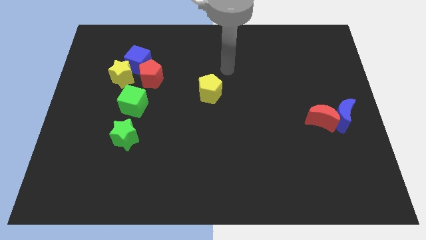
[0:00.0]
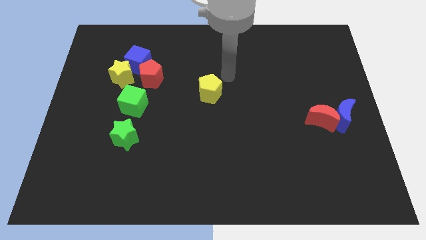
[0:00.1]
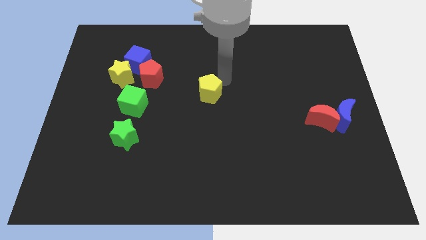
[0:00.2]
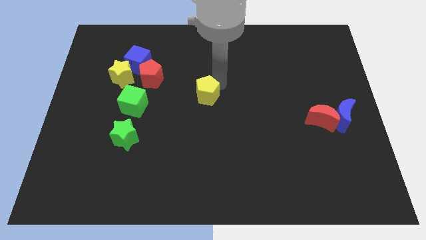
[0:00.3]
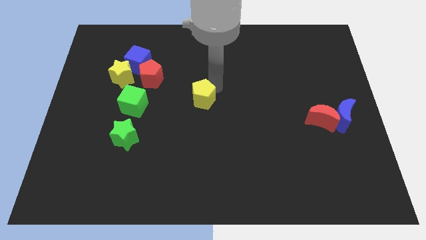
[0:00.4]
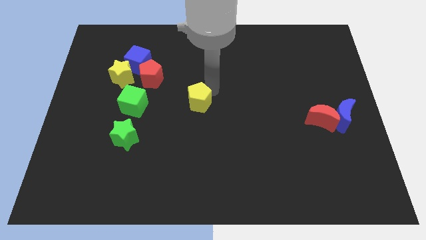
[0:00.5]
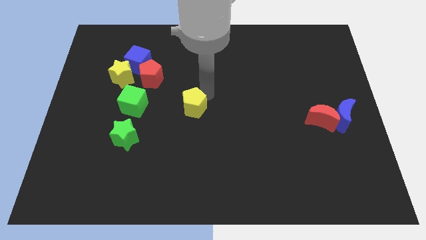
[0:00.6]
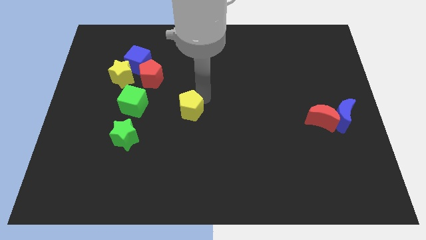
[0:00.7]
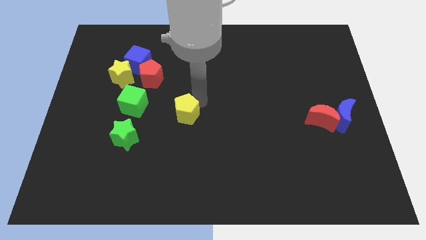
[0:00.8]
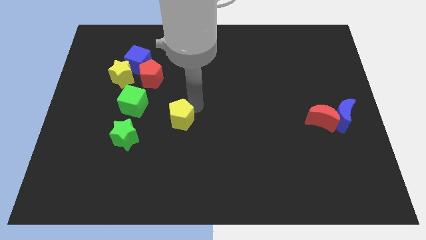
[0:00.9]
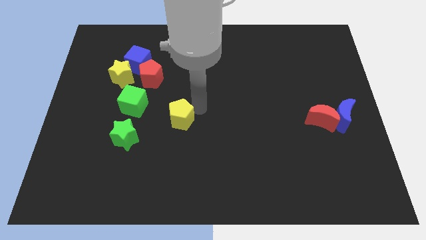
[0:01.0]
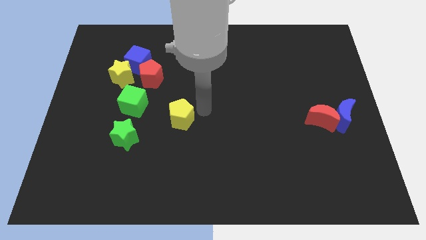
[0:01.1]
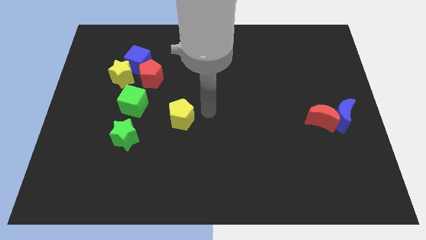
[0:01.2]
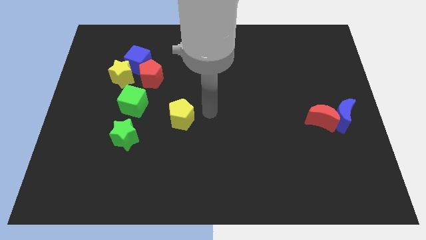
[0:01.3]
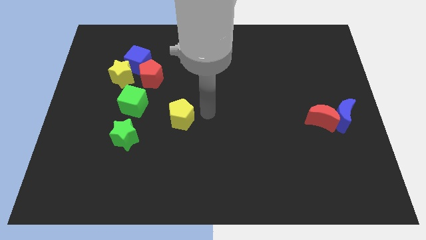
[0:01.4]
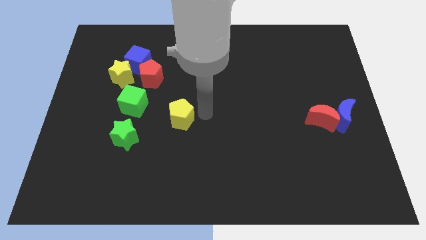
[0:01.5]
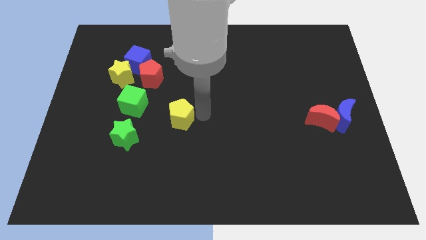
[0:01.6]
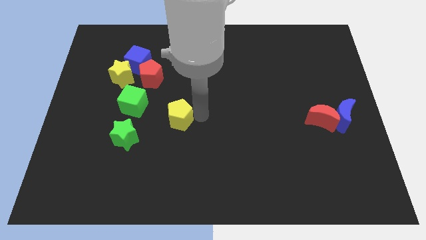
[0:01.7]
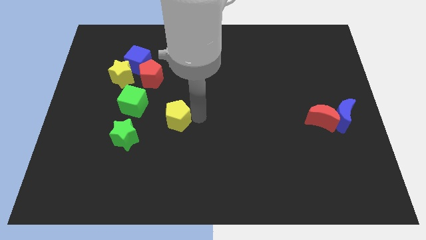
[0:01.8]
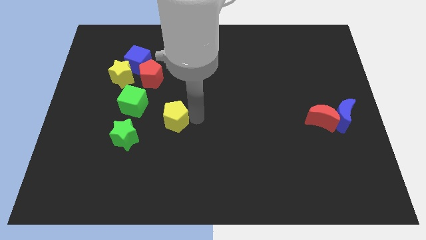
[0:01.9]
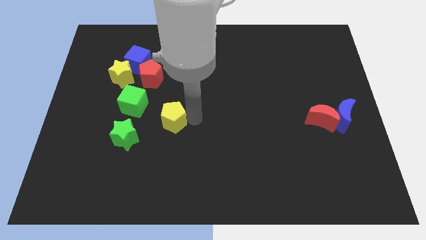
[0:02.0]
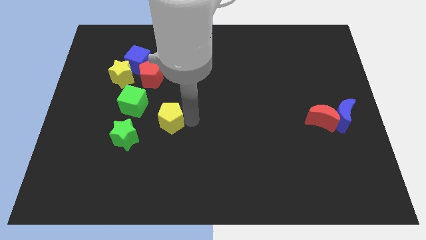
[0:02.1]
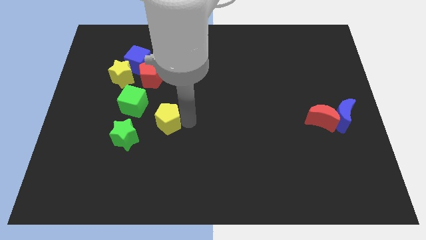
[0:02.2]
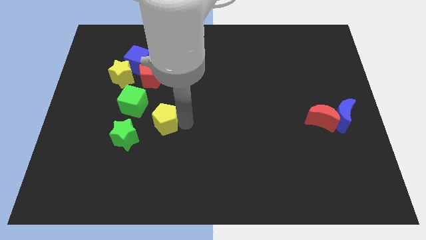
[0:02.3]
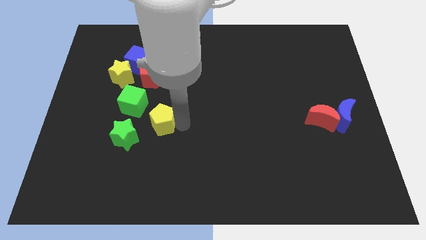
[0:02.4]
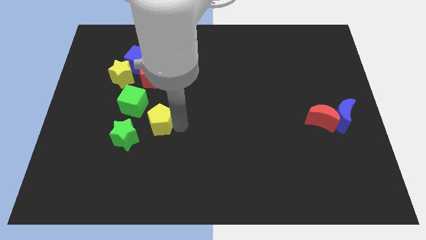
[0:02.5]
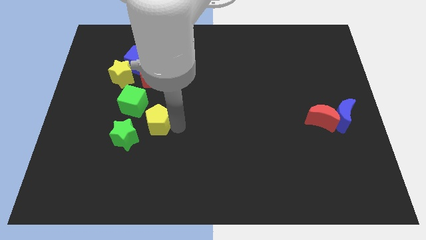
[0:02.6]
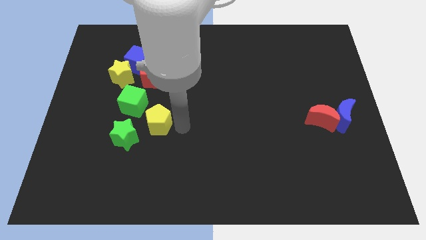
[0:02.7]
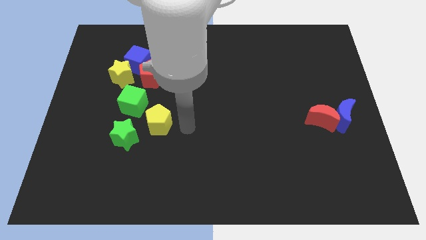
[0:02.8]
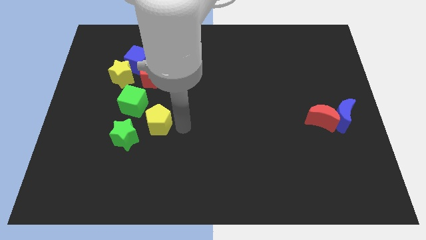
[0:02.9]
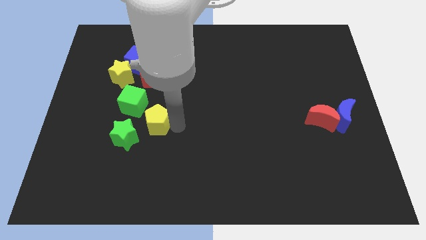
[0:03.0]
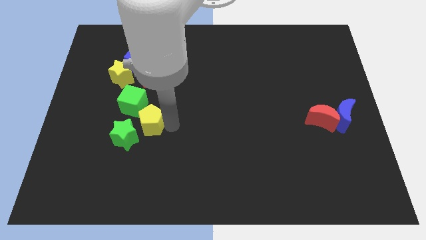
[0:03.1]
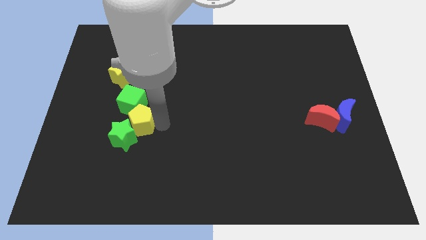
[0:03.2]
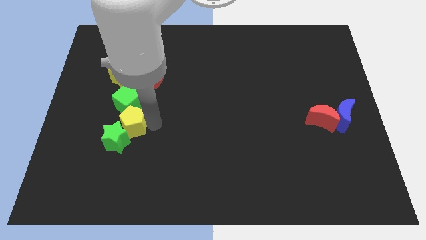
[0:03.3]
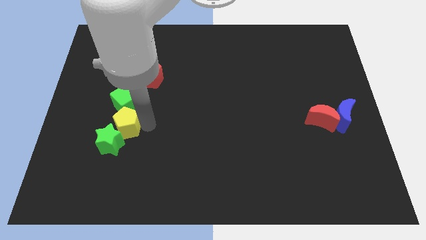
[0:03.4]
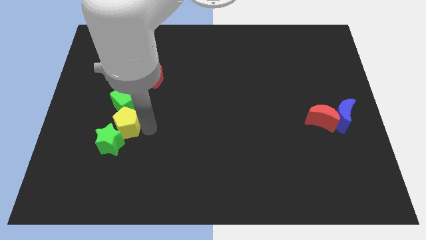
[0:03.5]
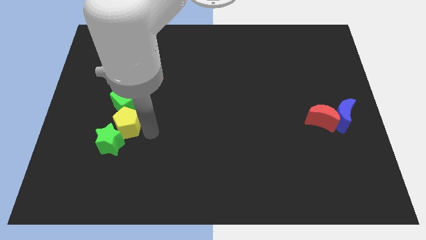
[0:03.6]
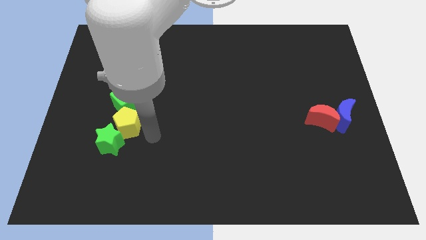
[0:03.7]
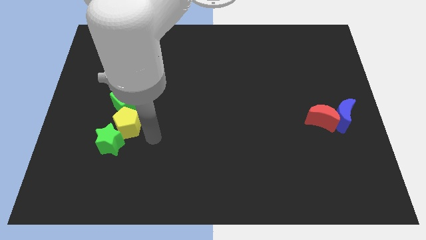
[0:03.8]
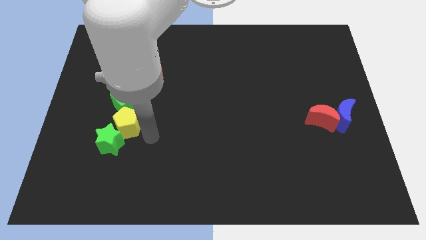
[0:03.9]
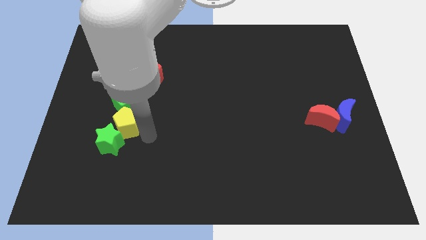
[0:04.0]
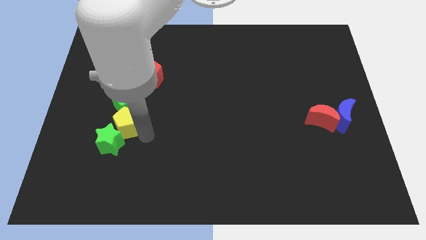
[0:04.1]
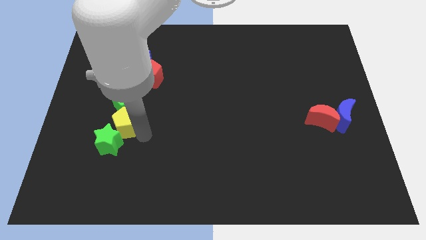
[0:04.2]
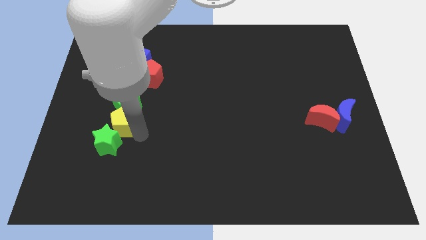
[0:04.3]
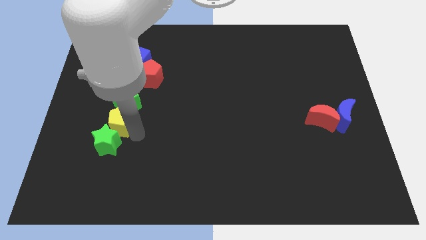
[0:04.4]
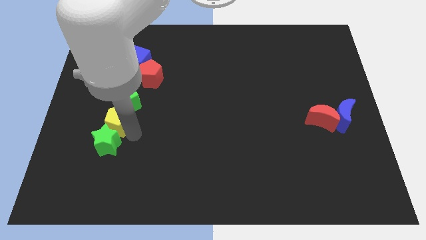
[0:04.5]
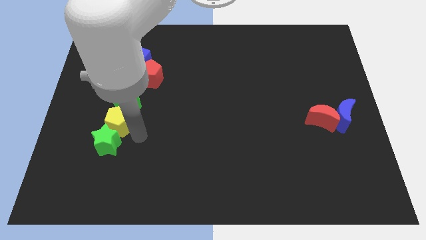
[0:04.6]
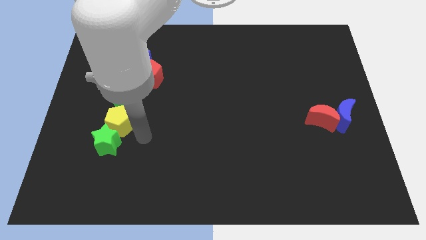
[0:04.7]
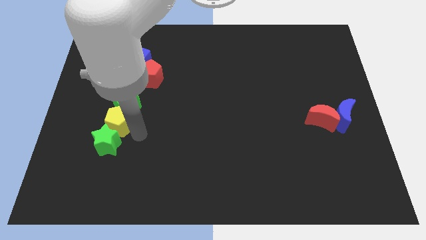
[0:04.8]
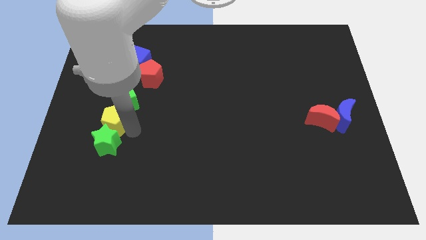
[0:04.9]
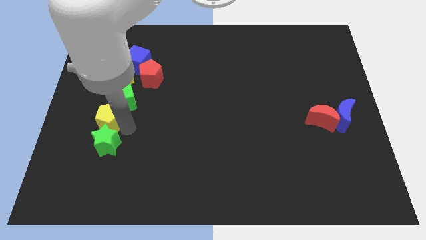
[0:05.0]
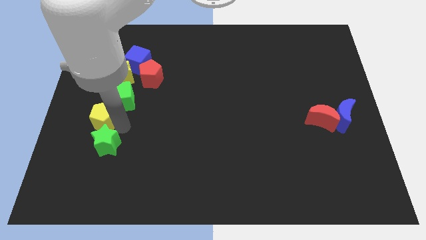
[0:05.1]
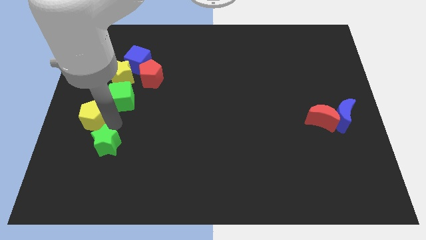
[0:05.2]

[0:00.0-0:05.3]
slide the yellow pentagon to the left side of the board

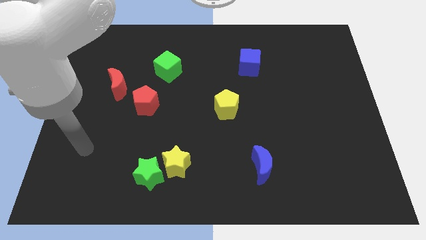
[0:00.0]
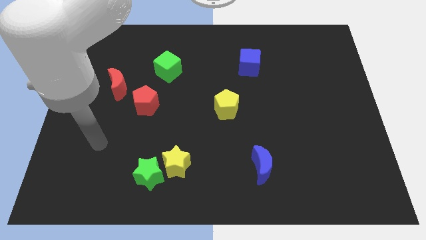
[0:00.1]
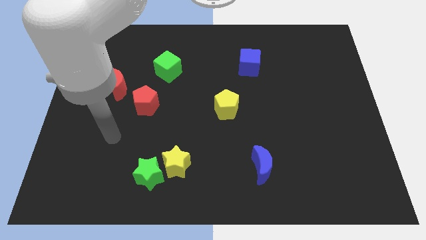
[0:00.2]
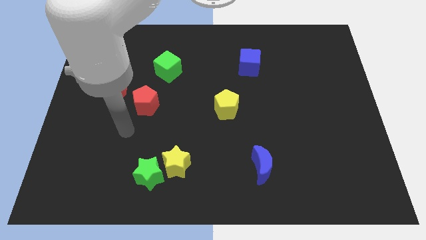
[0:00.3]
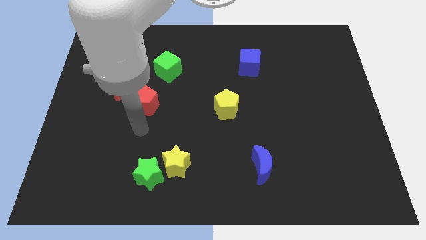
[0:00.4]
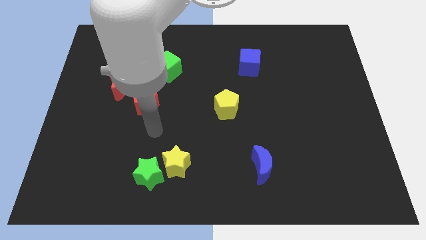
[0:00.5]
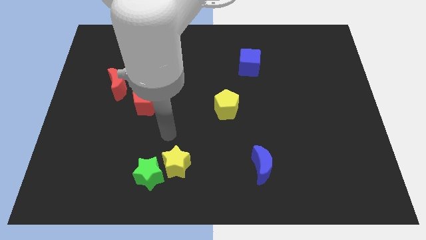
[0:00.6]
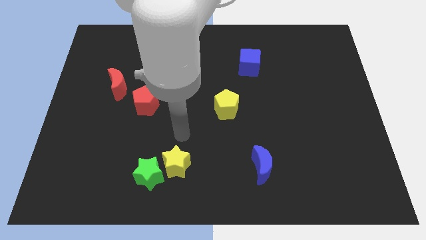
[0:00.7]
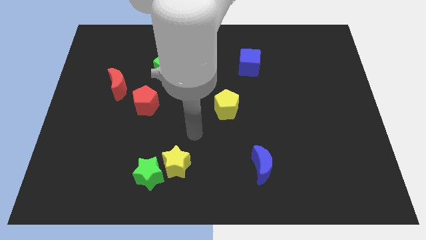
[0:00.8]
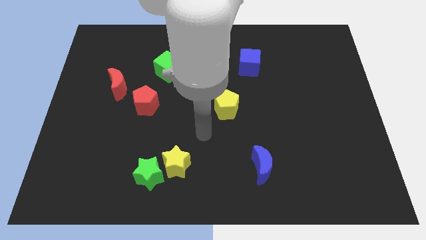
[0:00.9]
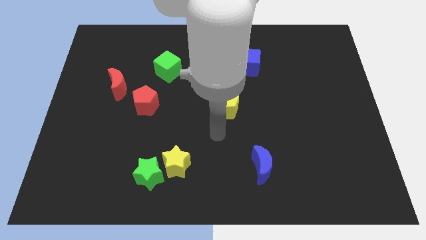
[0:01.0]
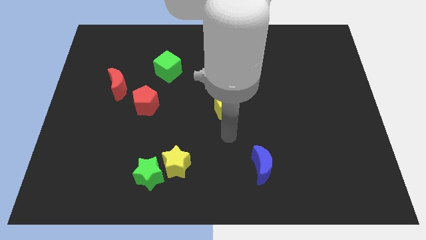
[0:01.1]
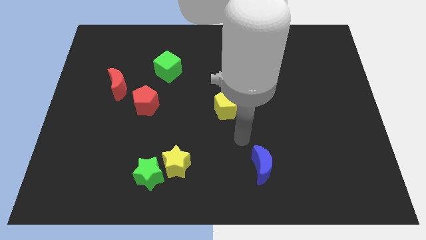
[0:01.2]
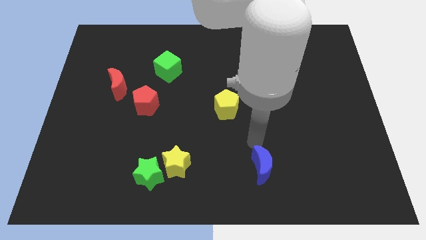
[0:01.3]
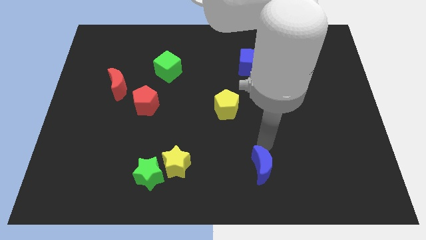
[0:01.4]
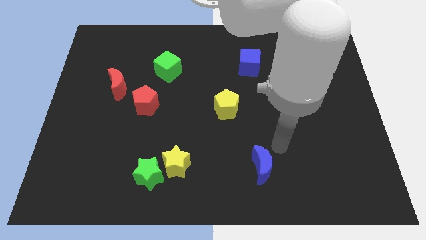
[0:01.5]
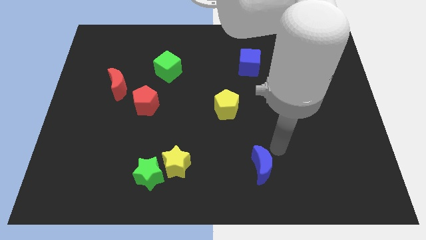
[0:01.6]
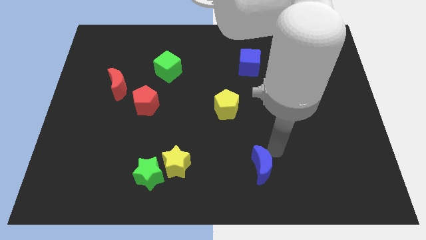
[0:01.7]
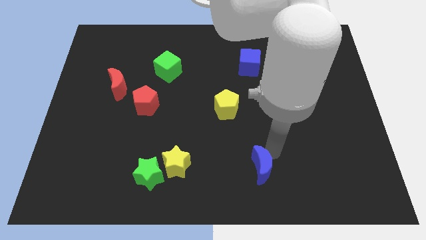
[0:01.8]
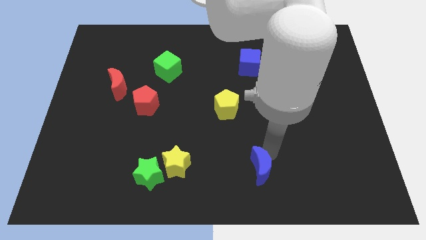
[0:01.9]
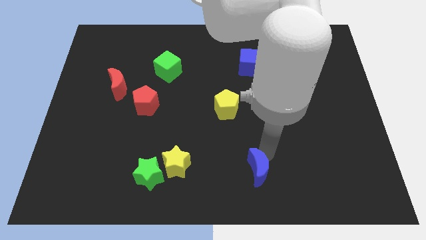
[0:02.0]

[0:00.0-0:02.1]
move the blue moon to the bottom
